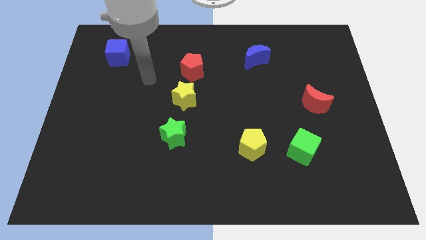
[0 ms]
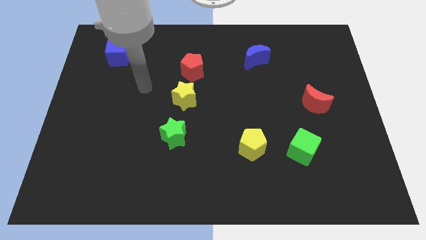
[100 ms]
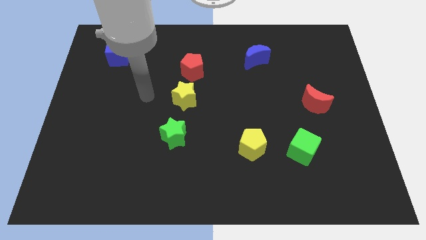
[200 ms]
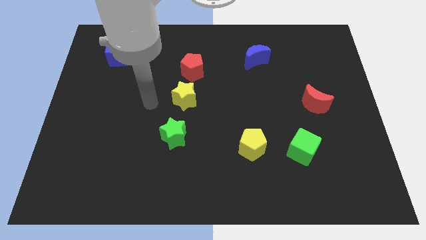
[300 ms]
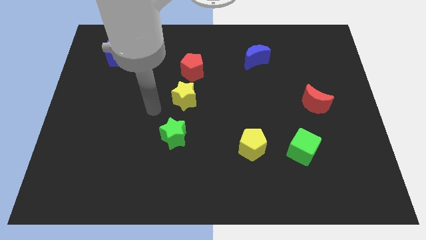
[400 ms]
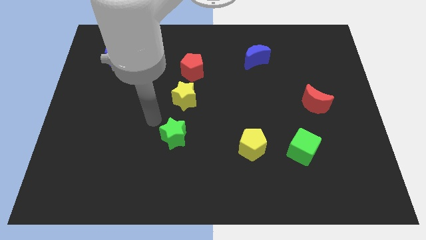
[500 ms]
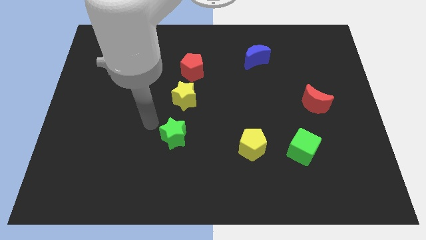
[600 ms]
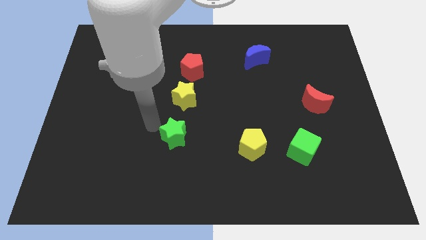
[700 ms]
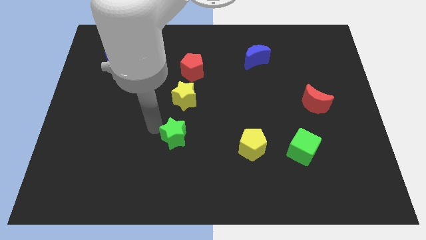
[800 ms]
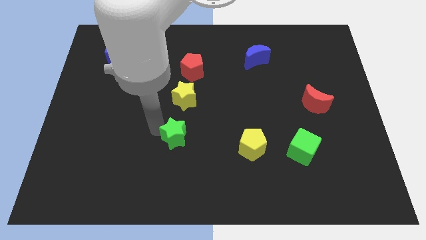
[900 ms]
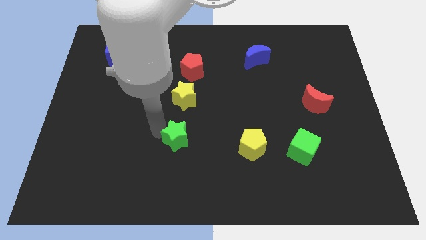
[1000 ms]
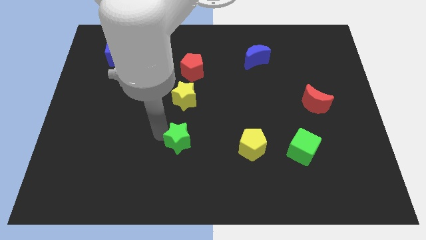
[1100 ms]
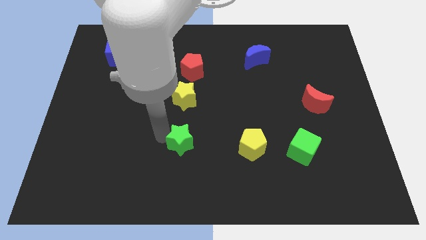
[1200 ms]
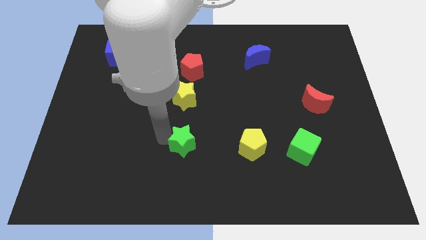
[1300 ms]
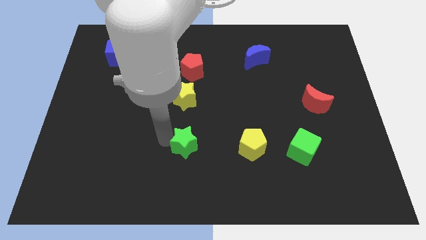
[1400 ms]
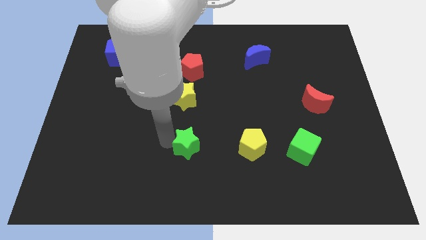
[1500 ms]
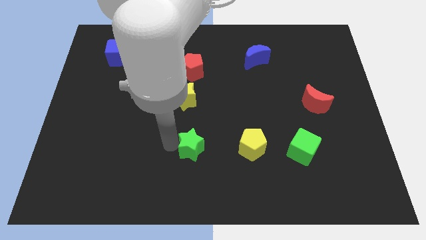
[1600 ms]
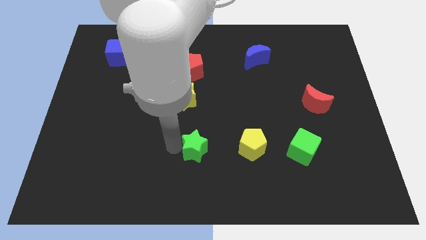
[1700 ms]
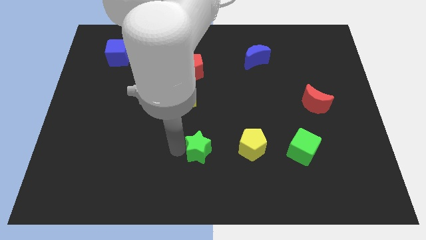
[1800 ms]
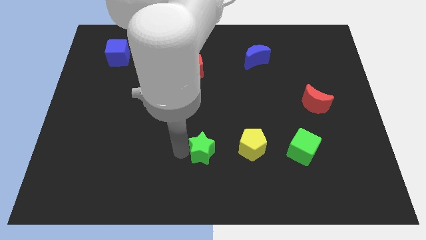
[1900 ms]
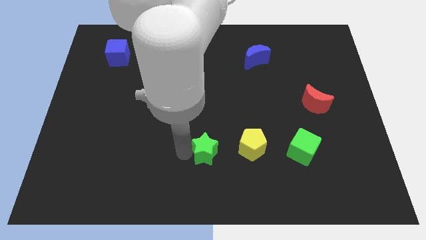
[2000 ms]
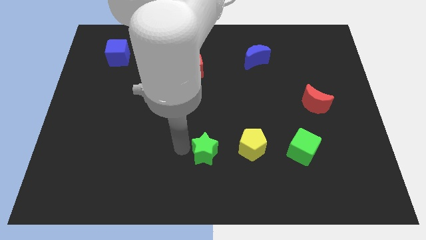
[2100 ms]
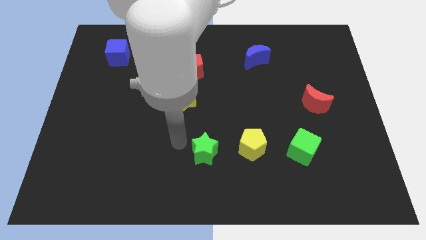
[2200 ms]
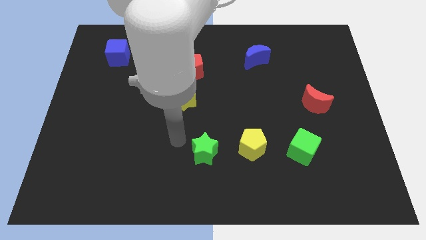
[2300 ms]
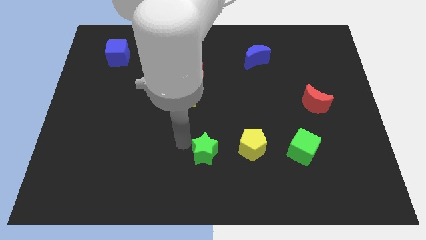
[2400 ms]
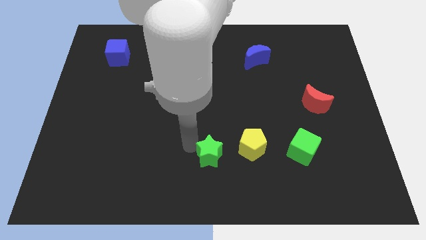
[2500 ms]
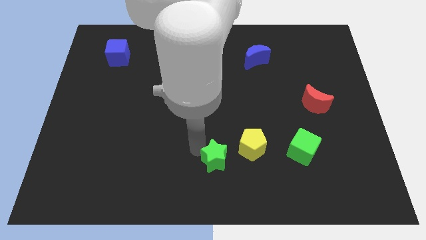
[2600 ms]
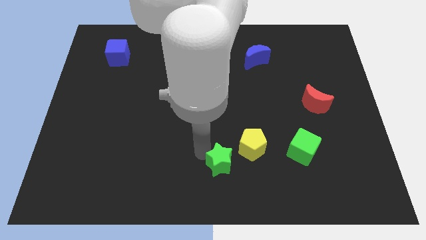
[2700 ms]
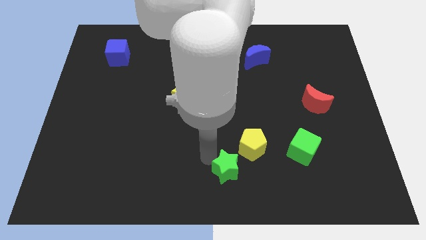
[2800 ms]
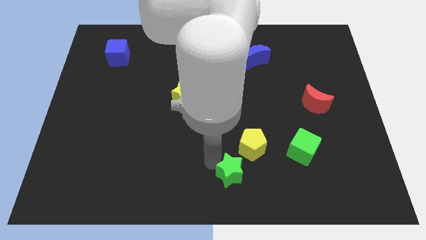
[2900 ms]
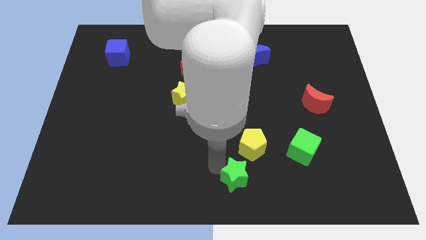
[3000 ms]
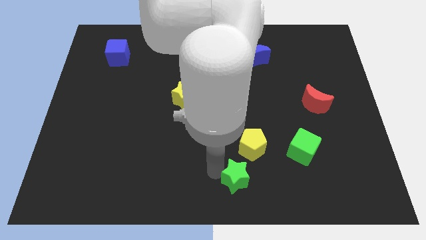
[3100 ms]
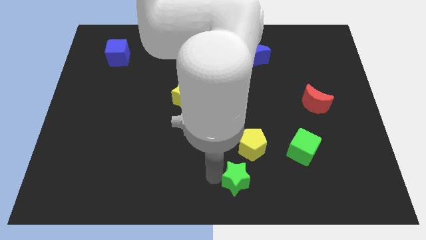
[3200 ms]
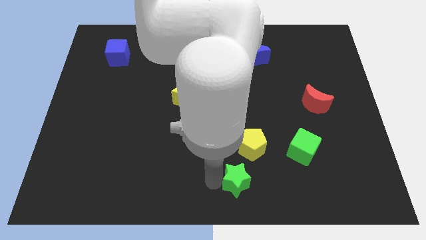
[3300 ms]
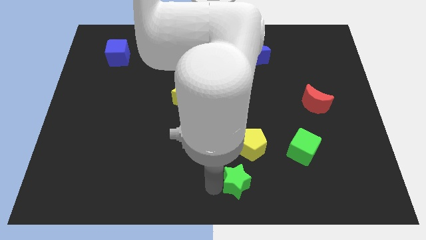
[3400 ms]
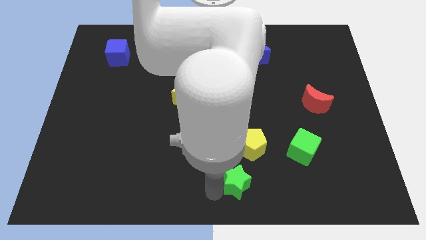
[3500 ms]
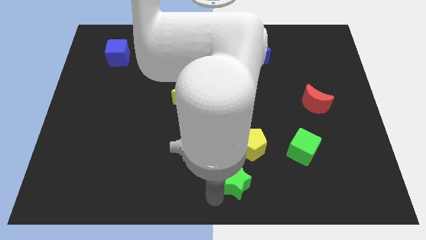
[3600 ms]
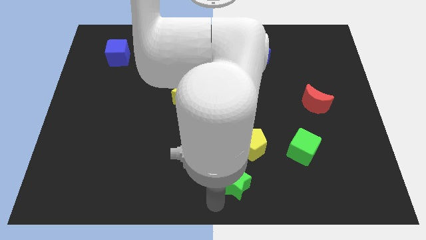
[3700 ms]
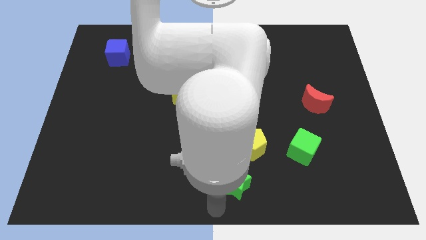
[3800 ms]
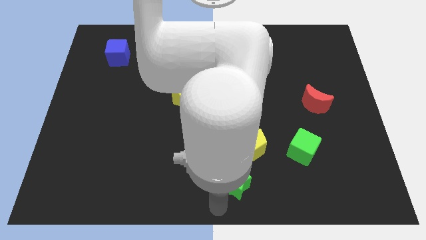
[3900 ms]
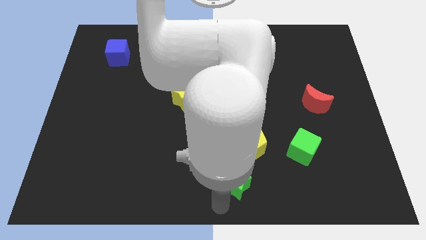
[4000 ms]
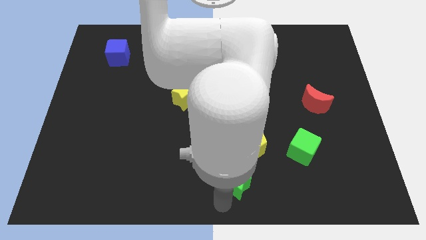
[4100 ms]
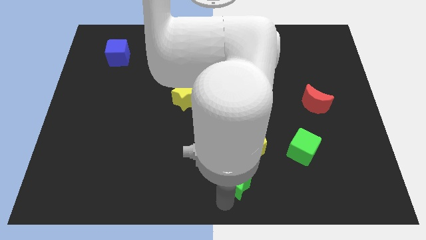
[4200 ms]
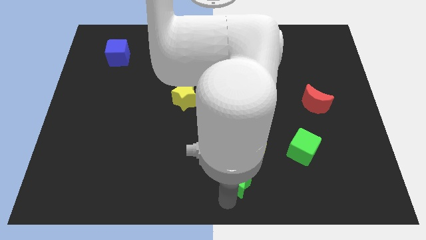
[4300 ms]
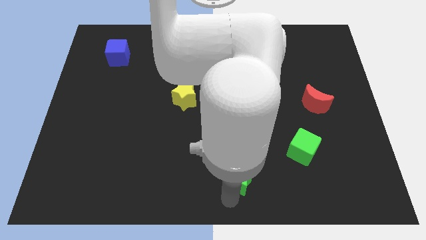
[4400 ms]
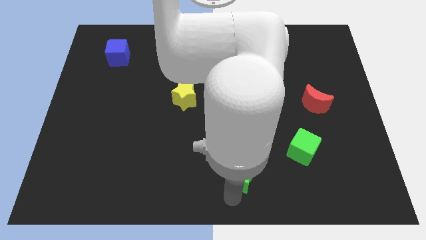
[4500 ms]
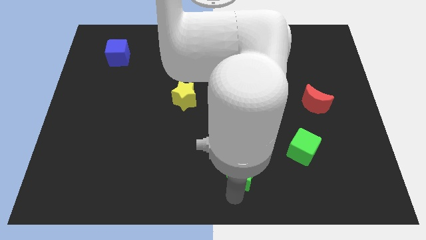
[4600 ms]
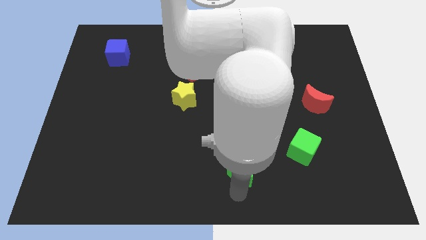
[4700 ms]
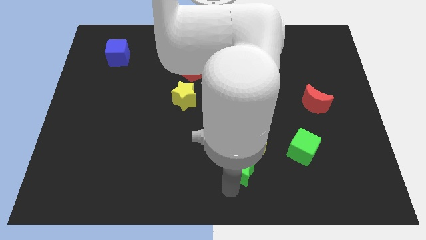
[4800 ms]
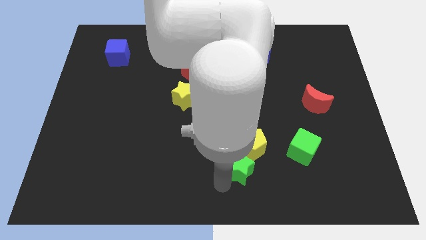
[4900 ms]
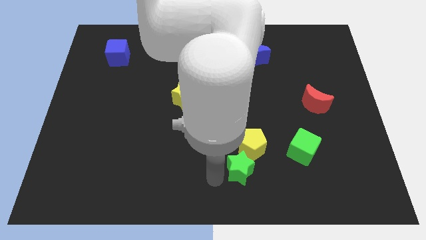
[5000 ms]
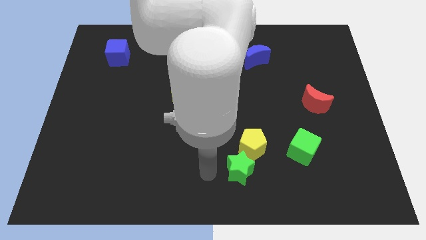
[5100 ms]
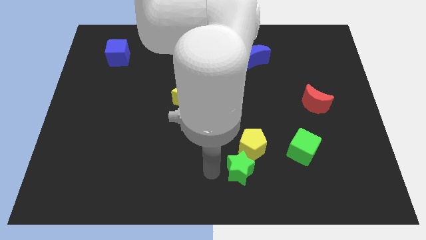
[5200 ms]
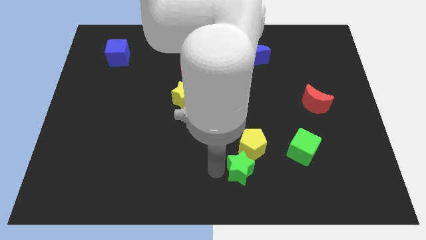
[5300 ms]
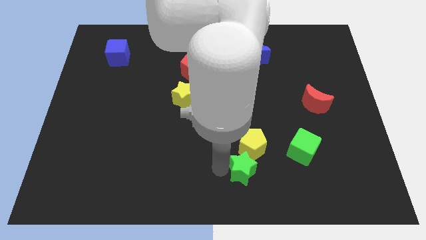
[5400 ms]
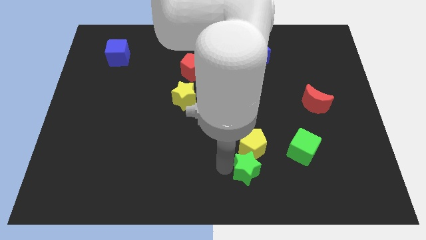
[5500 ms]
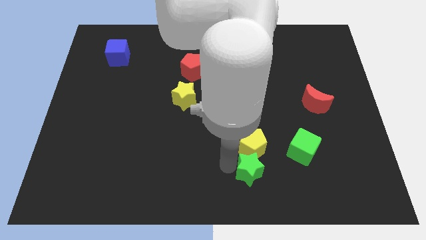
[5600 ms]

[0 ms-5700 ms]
put the green star to the bottom right side of the yellow pentagon

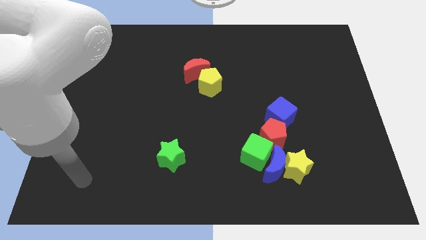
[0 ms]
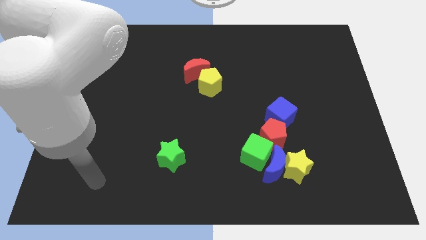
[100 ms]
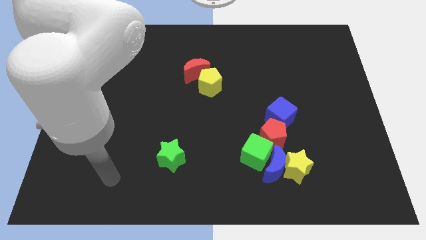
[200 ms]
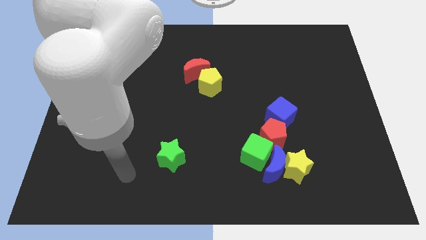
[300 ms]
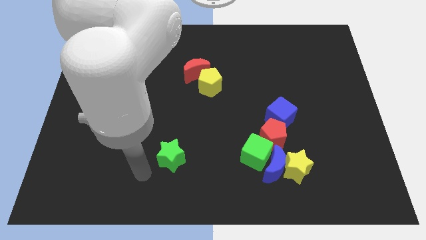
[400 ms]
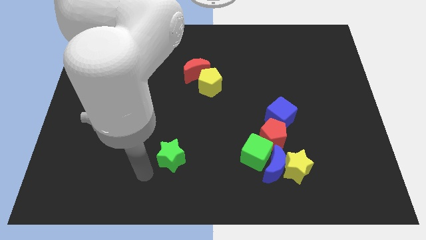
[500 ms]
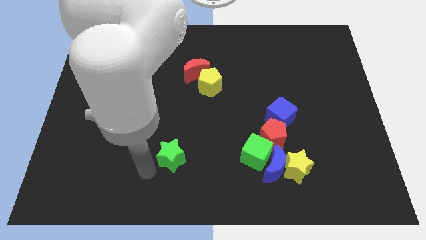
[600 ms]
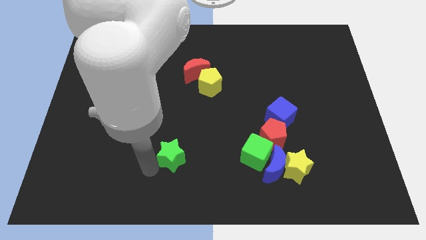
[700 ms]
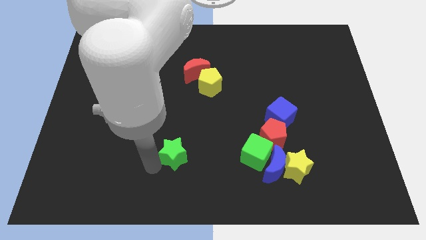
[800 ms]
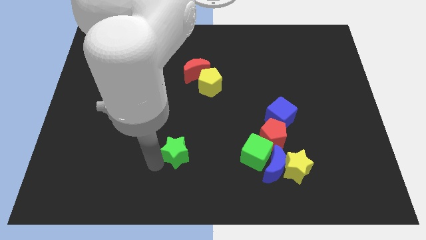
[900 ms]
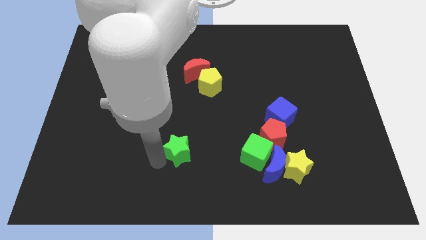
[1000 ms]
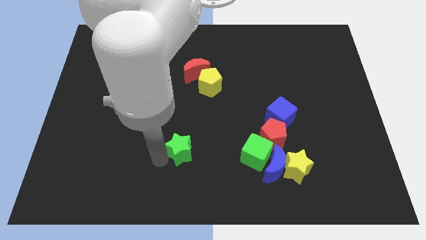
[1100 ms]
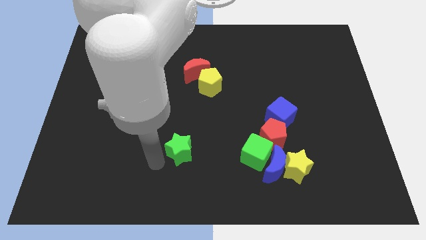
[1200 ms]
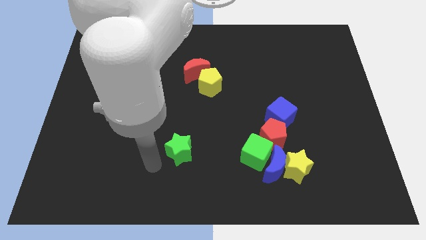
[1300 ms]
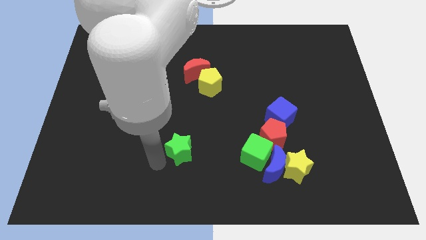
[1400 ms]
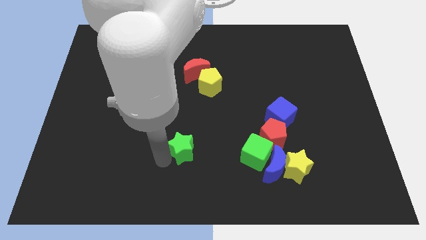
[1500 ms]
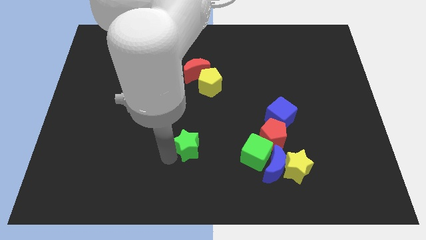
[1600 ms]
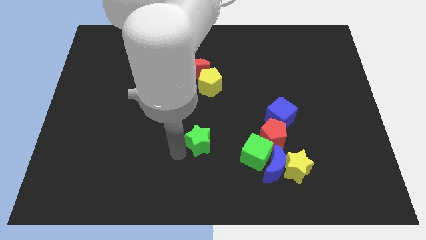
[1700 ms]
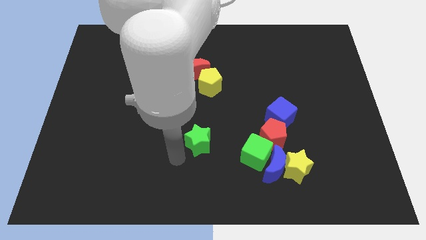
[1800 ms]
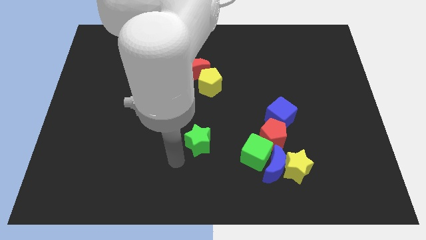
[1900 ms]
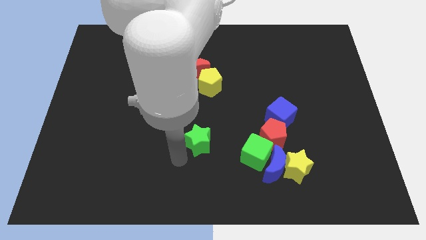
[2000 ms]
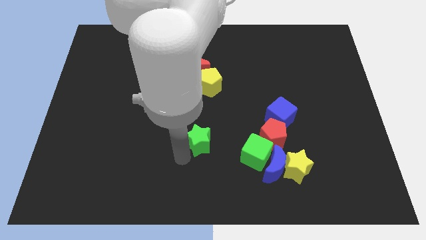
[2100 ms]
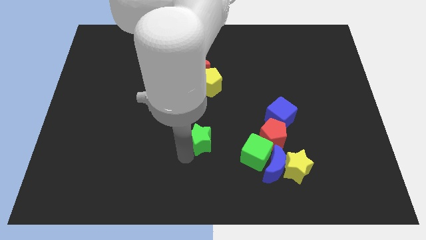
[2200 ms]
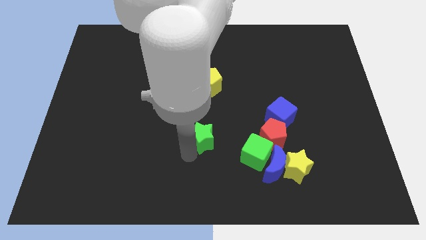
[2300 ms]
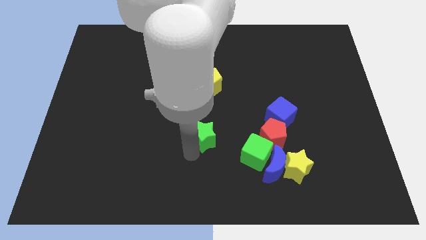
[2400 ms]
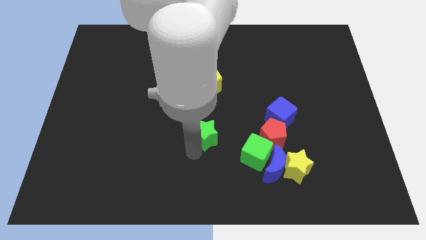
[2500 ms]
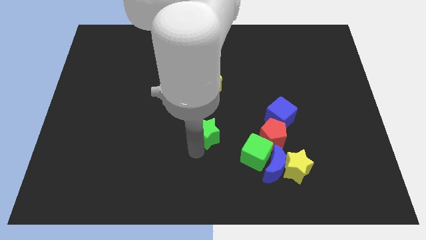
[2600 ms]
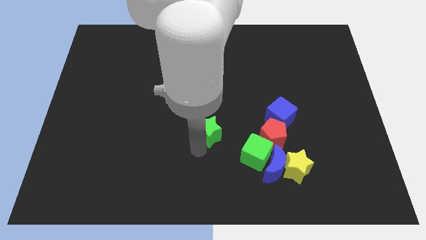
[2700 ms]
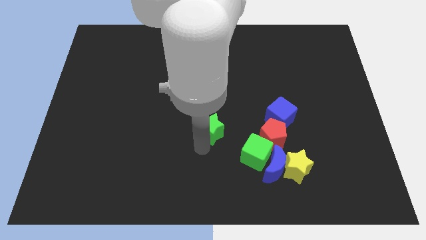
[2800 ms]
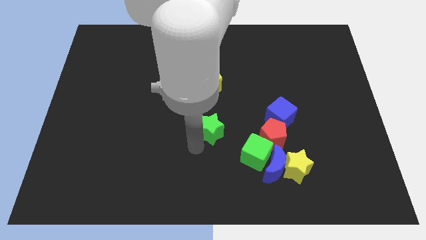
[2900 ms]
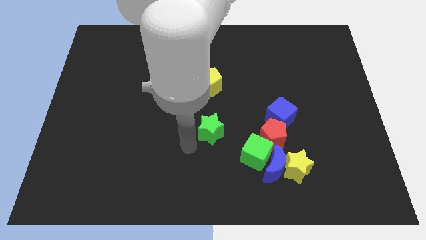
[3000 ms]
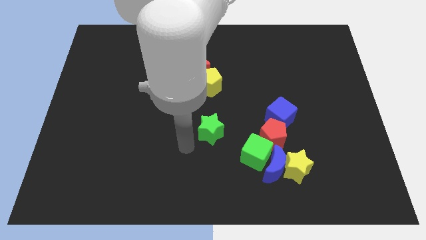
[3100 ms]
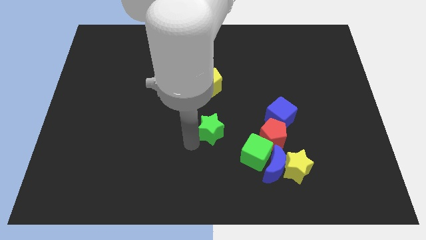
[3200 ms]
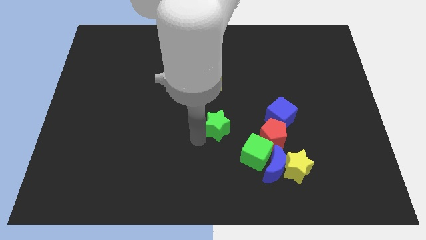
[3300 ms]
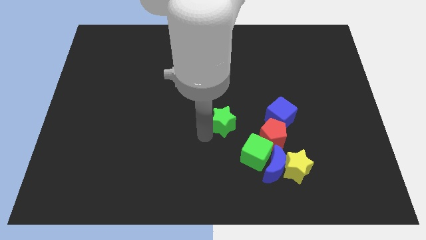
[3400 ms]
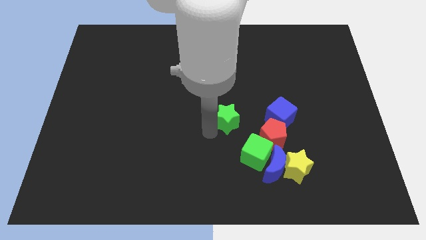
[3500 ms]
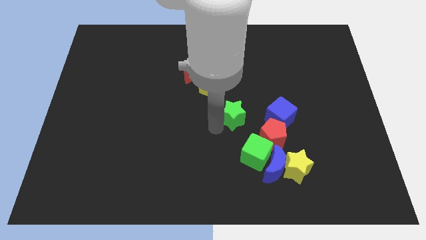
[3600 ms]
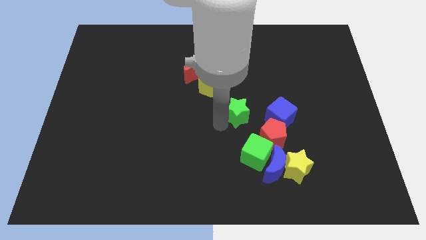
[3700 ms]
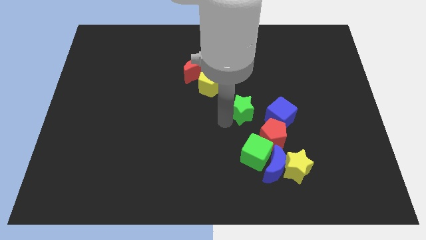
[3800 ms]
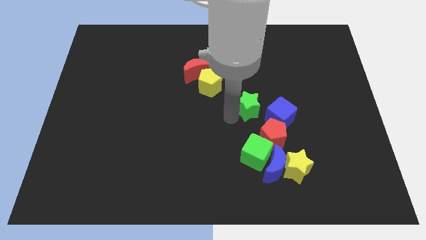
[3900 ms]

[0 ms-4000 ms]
put the green star above the red pentagon
